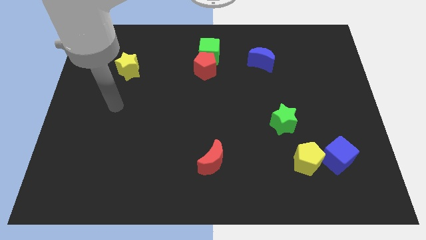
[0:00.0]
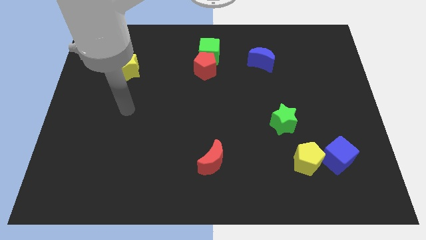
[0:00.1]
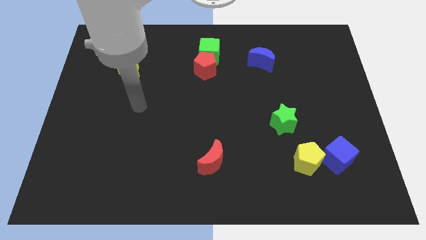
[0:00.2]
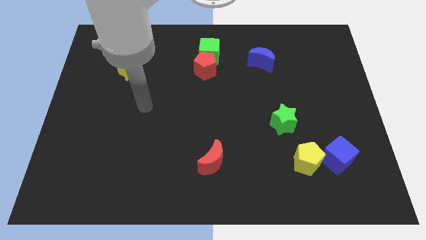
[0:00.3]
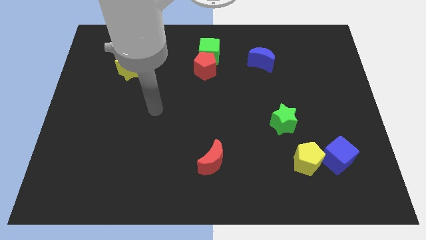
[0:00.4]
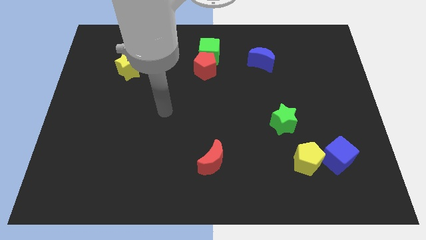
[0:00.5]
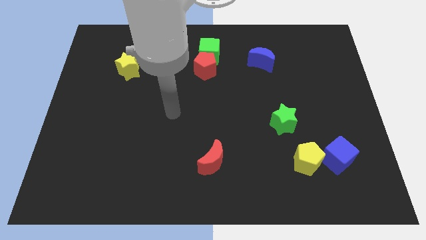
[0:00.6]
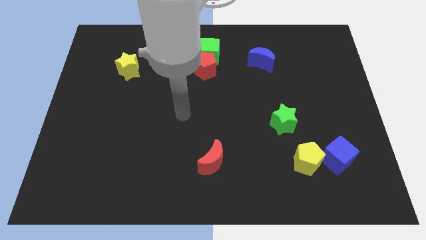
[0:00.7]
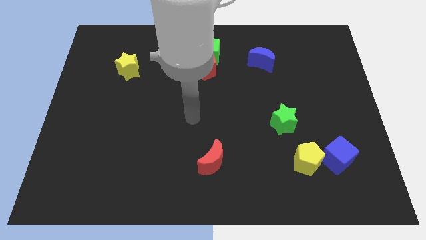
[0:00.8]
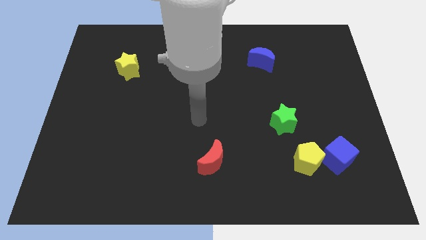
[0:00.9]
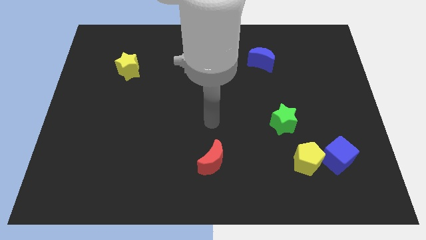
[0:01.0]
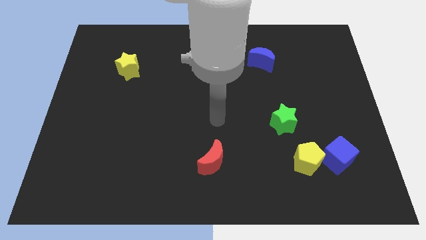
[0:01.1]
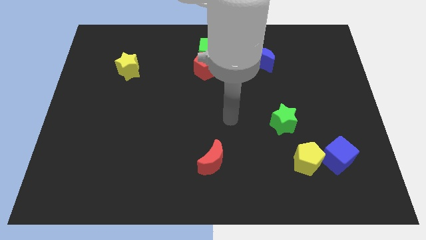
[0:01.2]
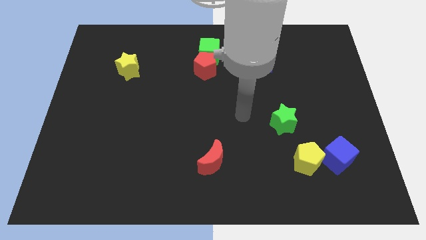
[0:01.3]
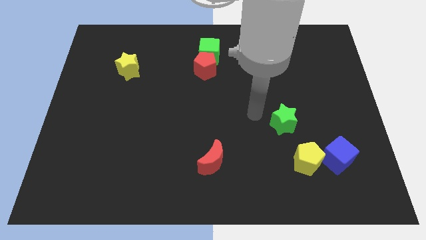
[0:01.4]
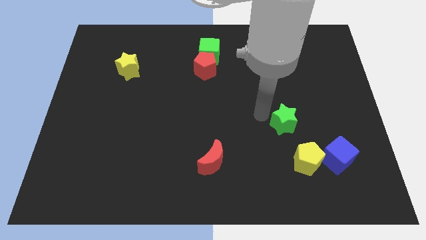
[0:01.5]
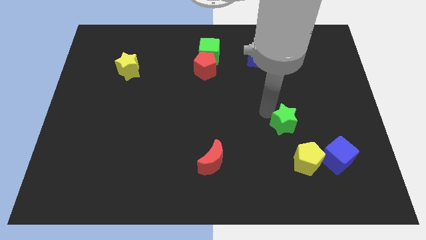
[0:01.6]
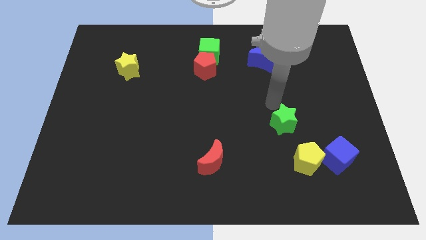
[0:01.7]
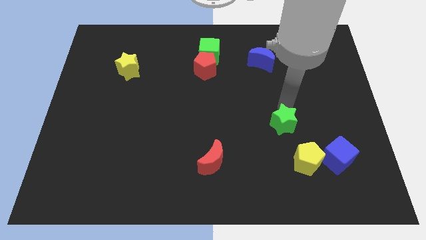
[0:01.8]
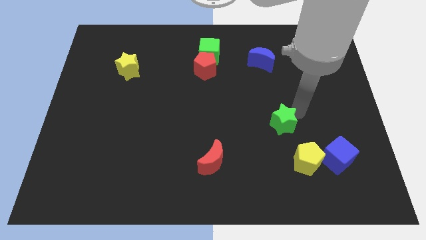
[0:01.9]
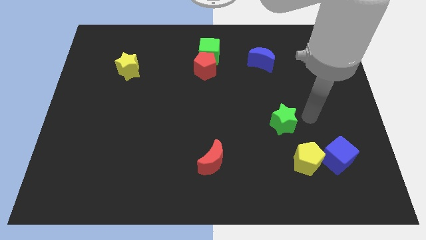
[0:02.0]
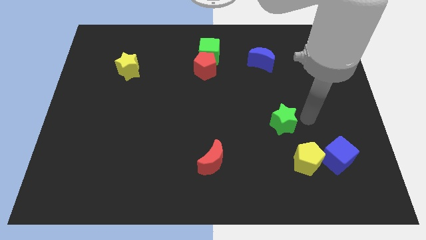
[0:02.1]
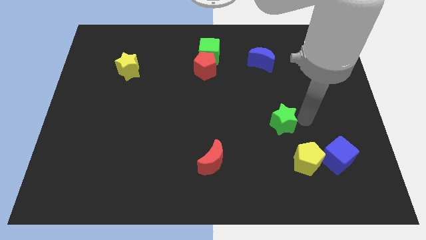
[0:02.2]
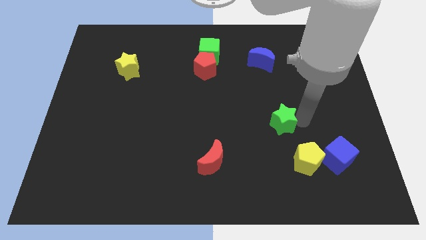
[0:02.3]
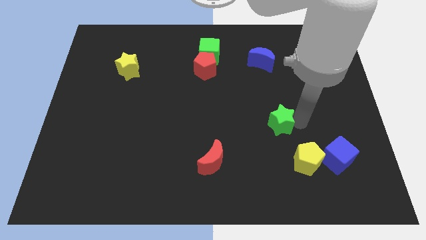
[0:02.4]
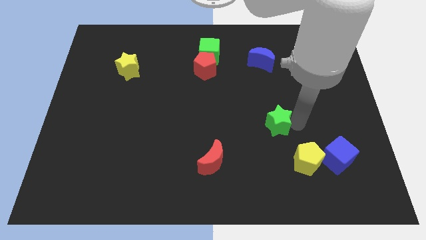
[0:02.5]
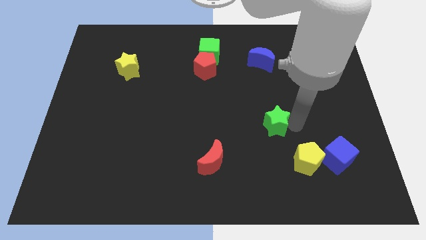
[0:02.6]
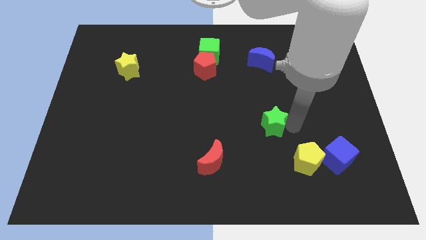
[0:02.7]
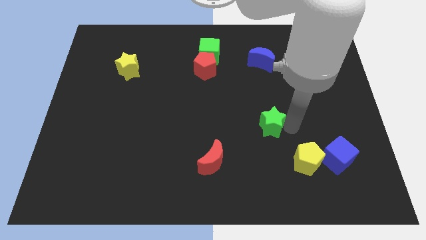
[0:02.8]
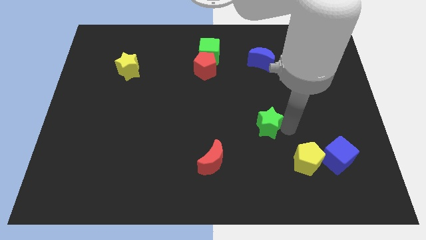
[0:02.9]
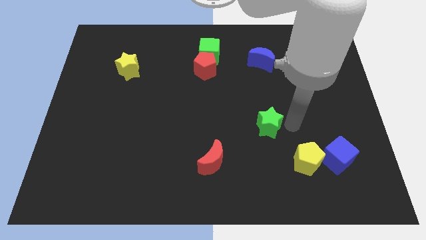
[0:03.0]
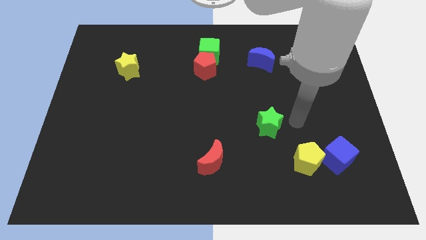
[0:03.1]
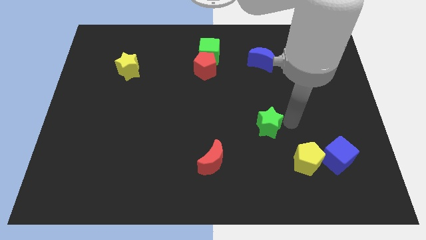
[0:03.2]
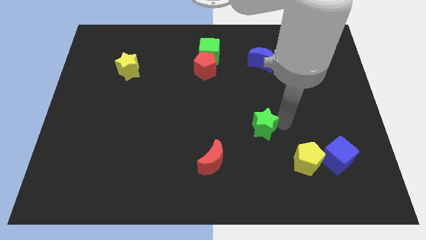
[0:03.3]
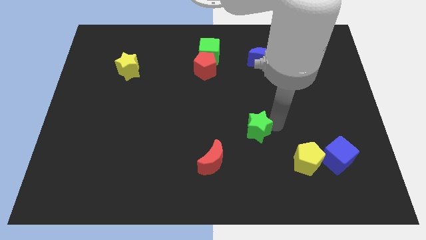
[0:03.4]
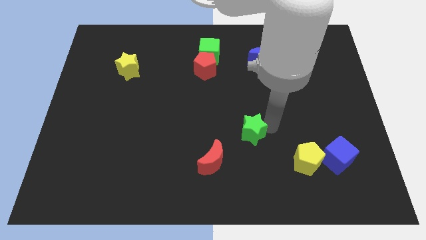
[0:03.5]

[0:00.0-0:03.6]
move the green star a little bit to the left

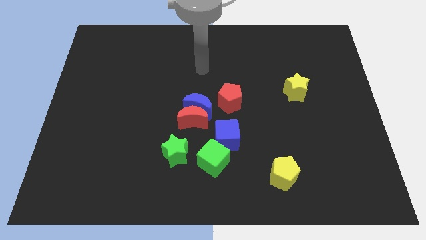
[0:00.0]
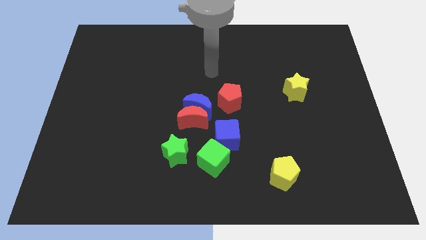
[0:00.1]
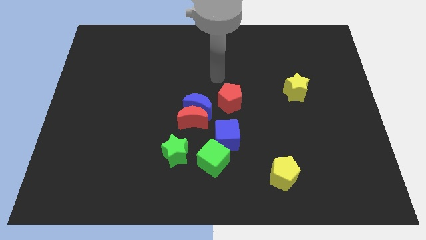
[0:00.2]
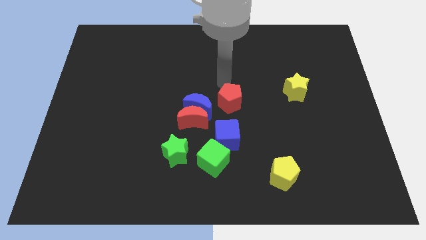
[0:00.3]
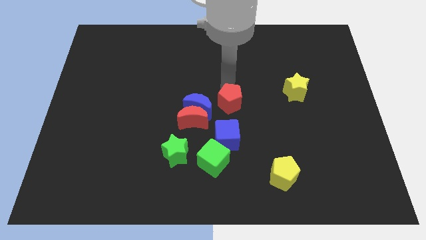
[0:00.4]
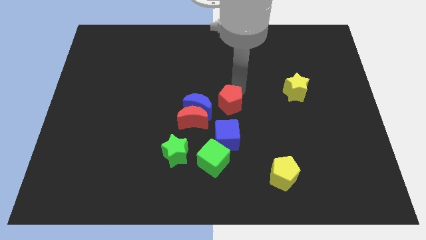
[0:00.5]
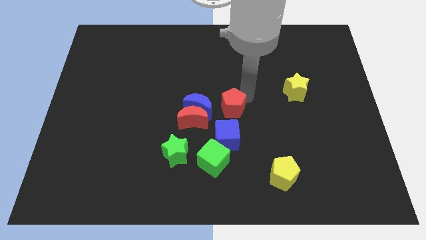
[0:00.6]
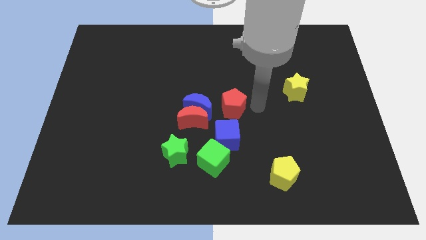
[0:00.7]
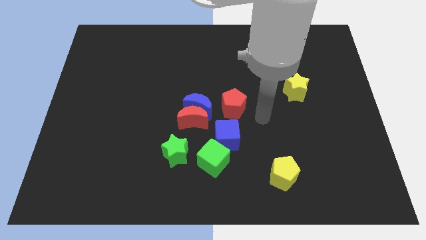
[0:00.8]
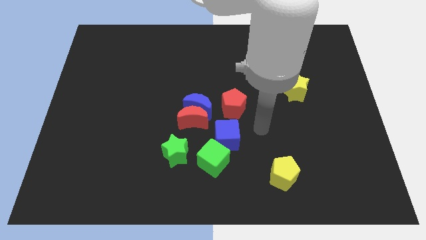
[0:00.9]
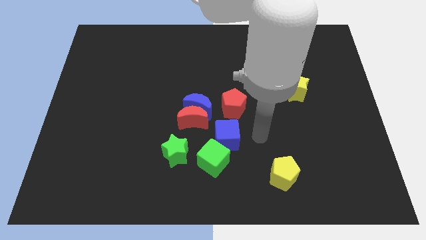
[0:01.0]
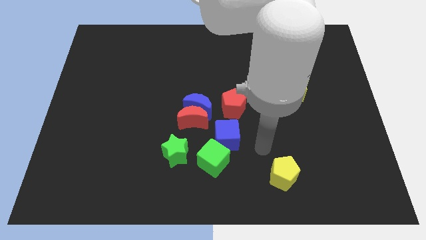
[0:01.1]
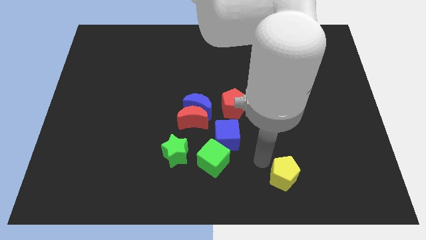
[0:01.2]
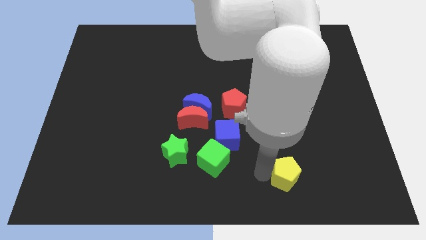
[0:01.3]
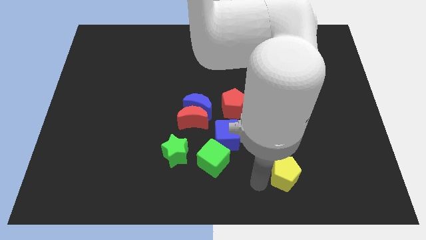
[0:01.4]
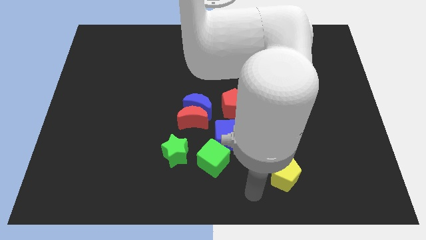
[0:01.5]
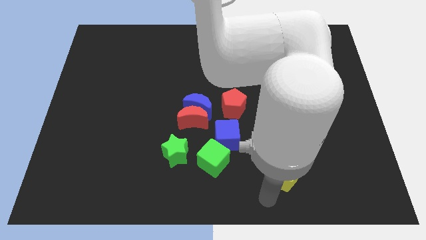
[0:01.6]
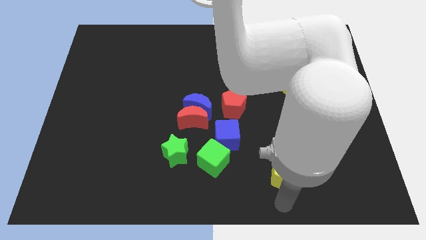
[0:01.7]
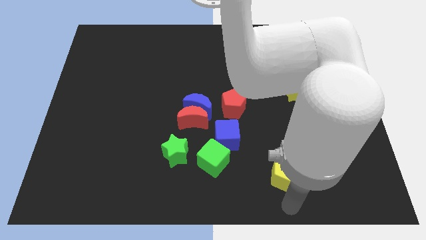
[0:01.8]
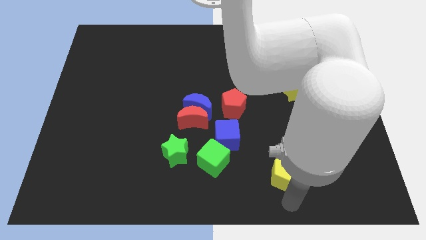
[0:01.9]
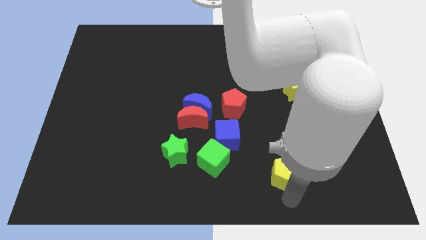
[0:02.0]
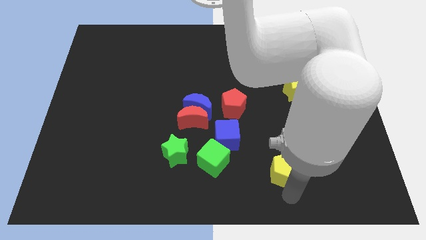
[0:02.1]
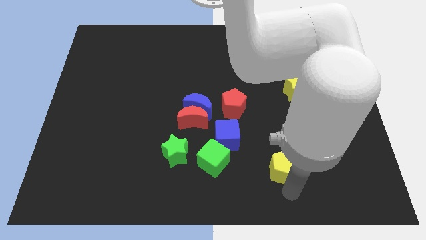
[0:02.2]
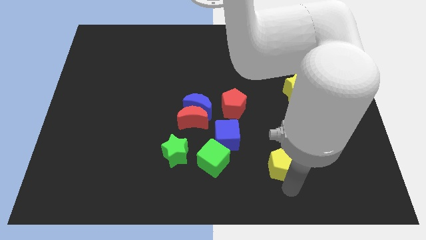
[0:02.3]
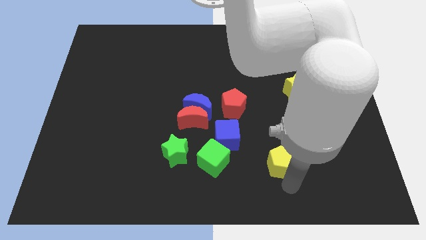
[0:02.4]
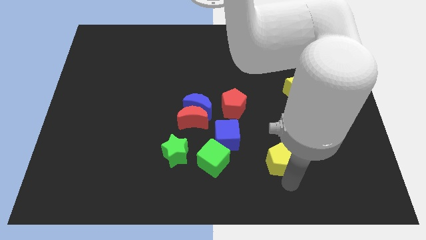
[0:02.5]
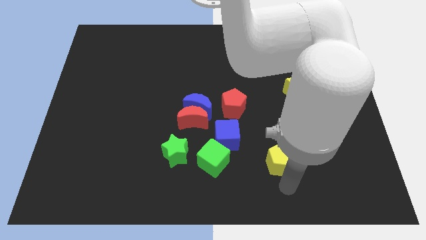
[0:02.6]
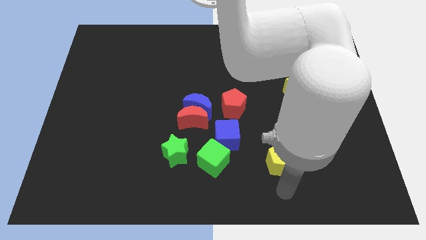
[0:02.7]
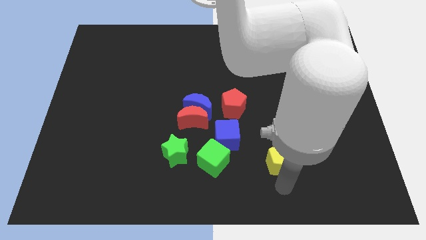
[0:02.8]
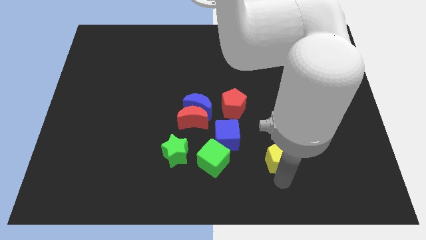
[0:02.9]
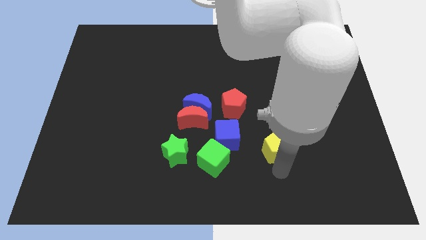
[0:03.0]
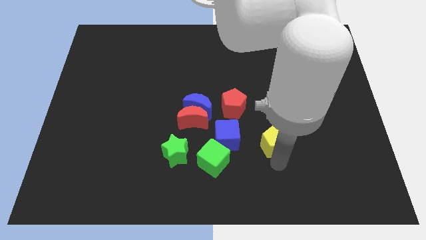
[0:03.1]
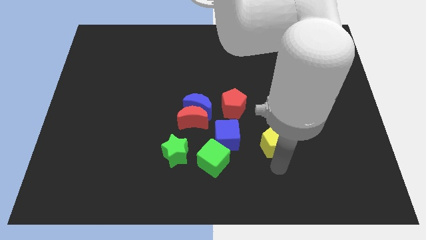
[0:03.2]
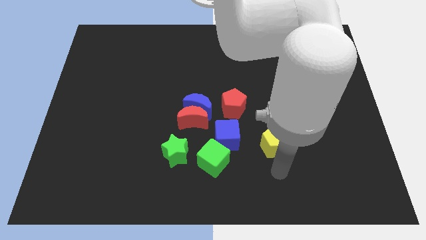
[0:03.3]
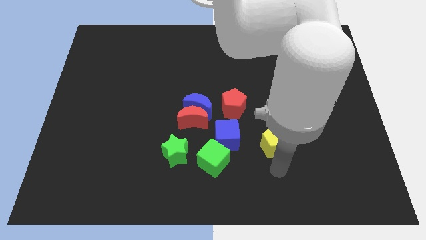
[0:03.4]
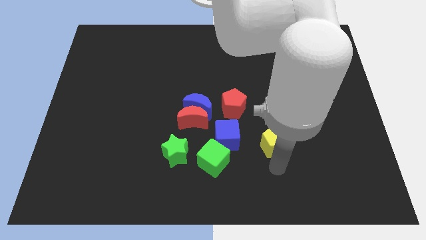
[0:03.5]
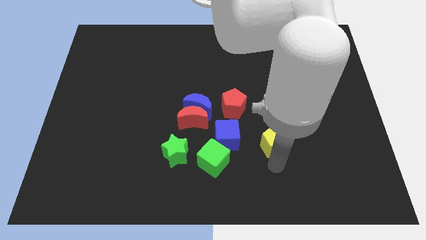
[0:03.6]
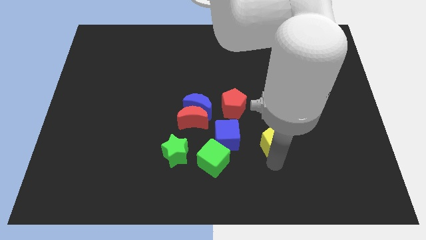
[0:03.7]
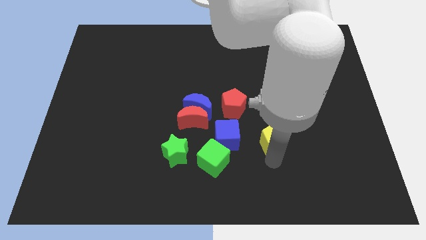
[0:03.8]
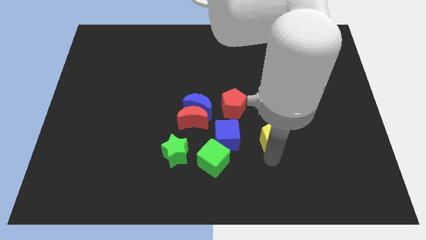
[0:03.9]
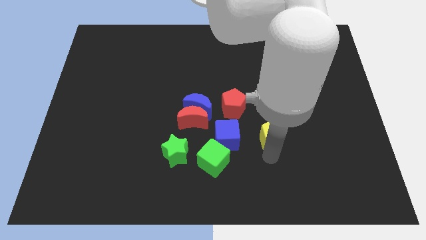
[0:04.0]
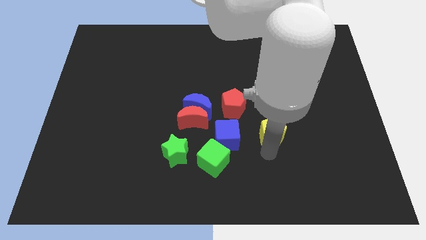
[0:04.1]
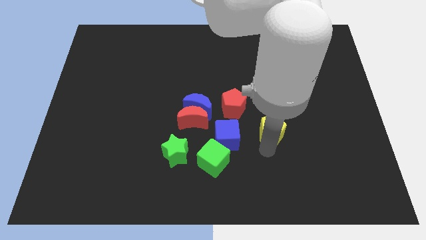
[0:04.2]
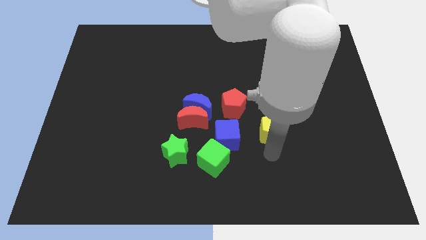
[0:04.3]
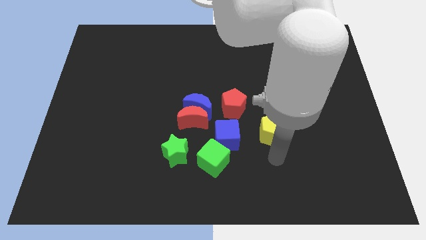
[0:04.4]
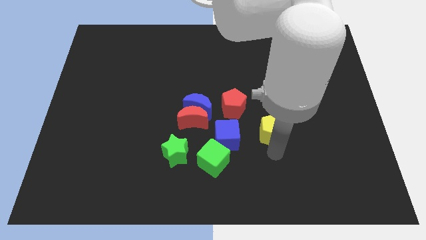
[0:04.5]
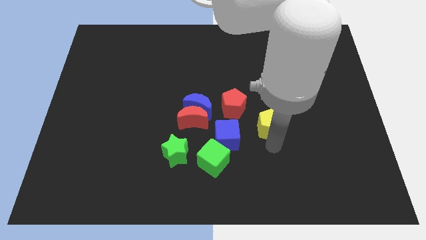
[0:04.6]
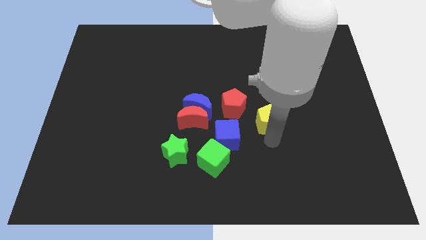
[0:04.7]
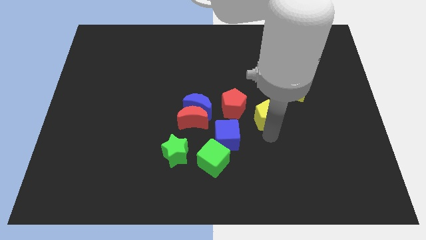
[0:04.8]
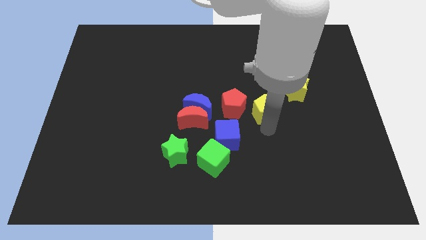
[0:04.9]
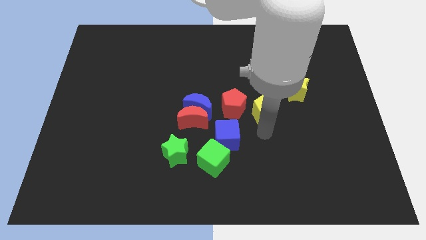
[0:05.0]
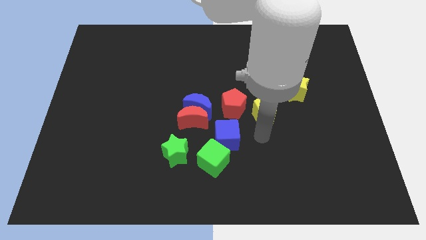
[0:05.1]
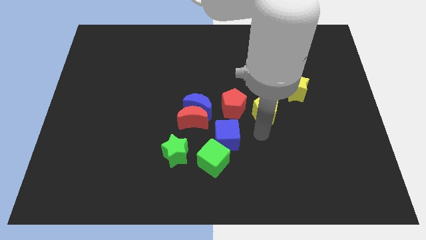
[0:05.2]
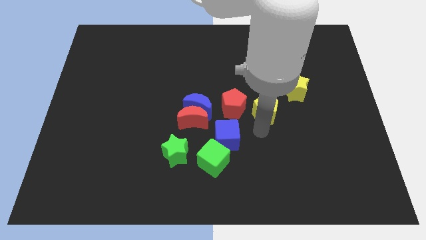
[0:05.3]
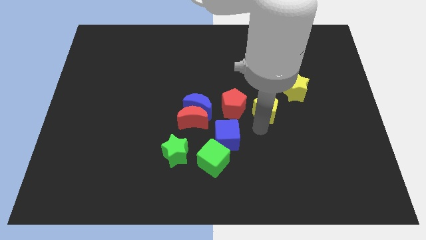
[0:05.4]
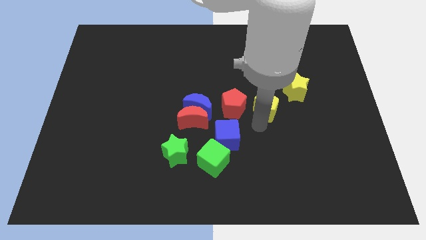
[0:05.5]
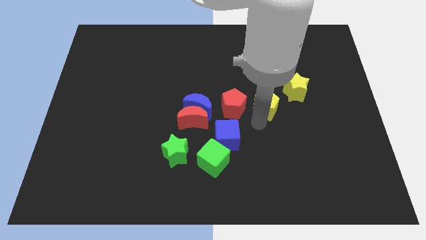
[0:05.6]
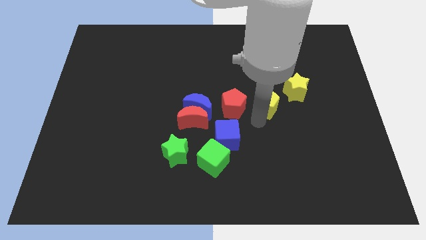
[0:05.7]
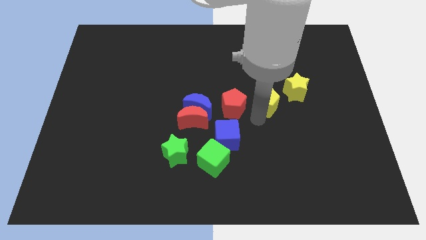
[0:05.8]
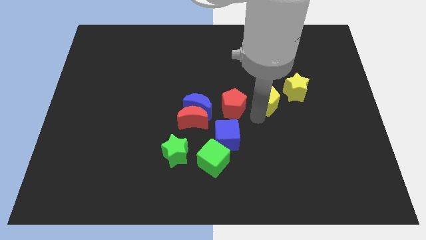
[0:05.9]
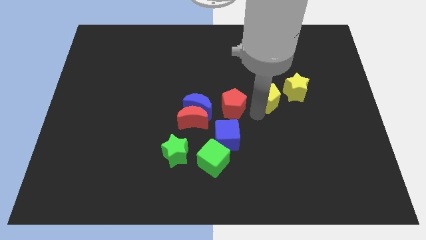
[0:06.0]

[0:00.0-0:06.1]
slide the yellow pentagon up
